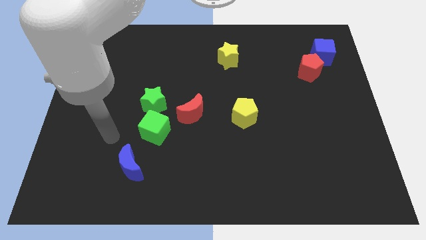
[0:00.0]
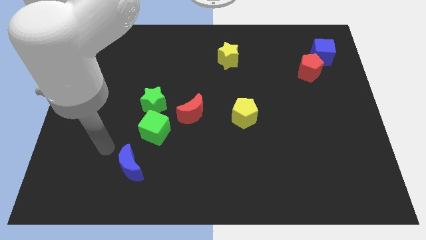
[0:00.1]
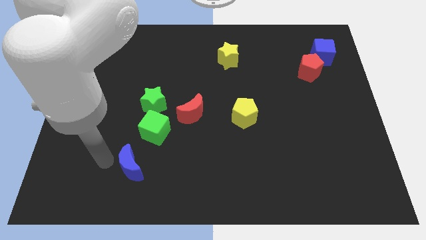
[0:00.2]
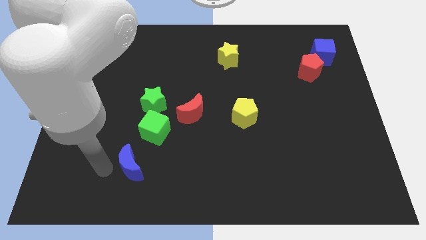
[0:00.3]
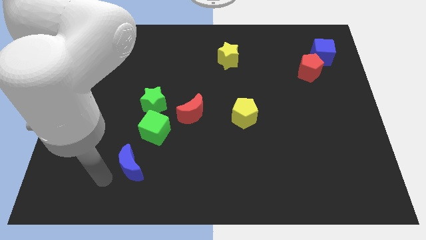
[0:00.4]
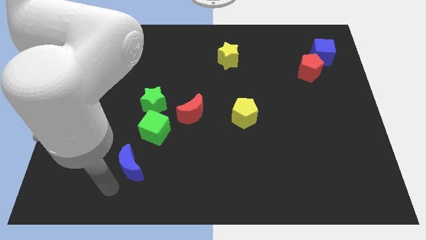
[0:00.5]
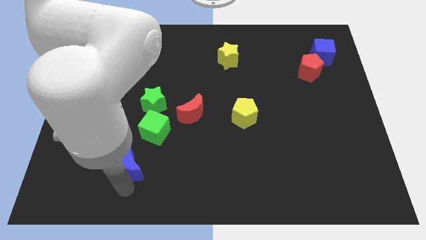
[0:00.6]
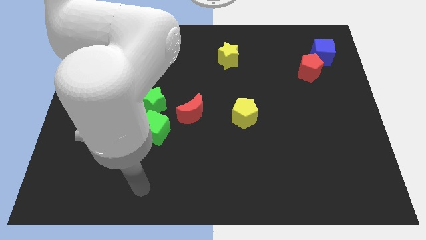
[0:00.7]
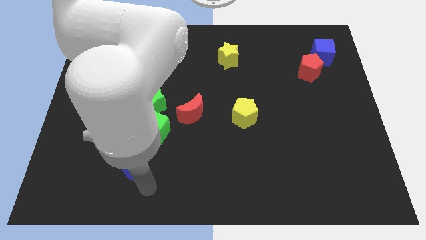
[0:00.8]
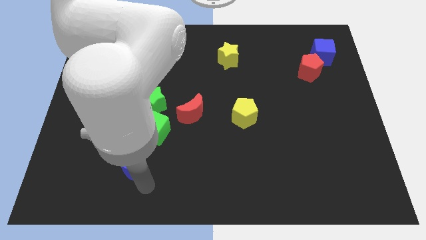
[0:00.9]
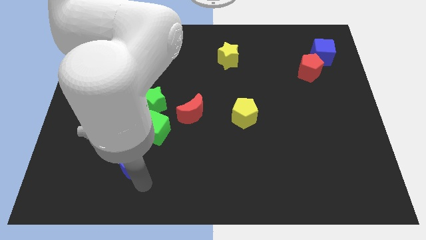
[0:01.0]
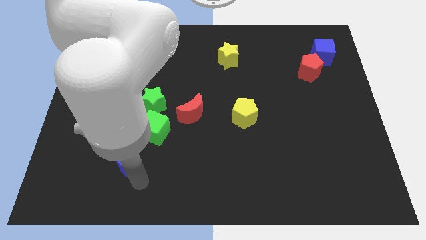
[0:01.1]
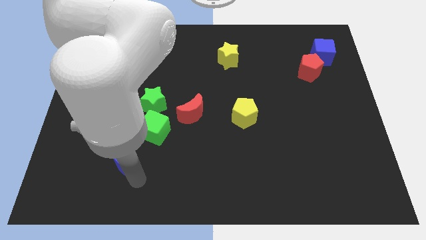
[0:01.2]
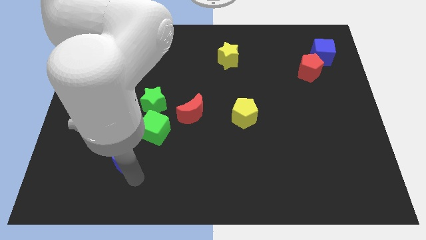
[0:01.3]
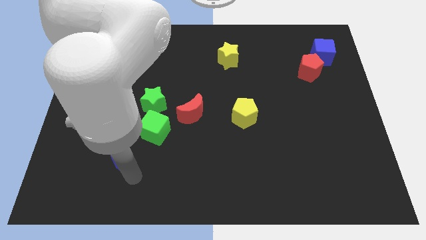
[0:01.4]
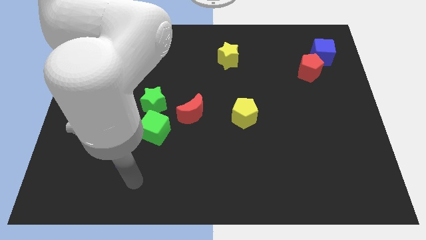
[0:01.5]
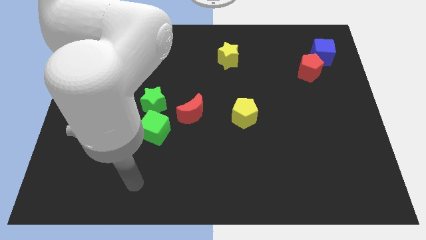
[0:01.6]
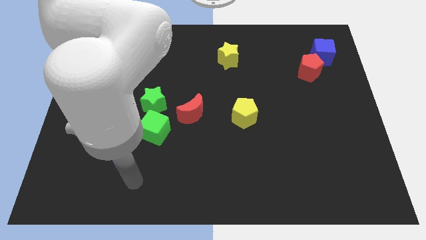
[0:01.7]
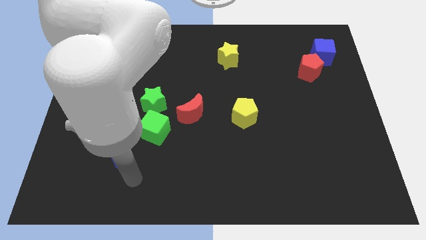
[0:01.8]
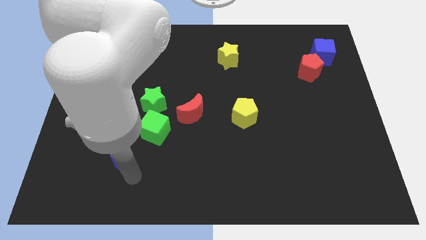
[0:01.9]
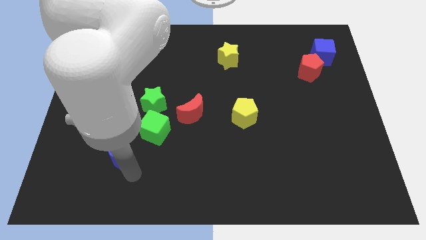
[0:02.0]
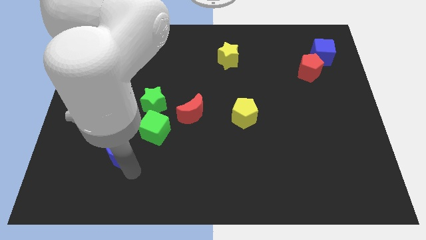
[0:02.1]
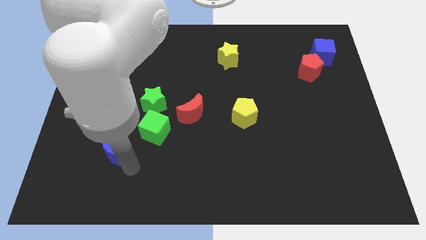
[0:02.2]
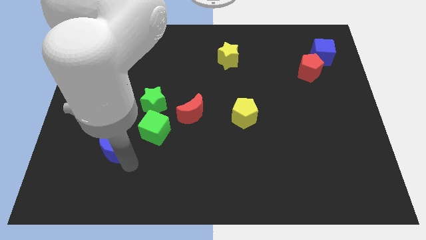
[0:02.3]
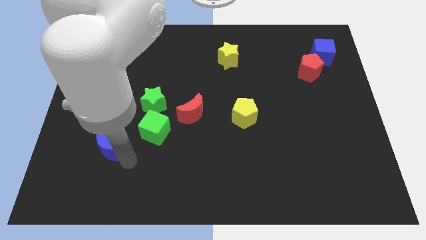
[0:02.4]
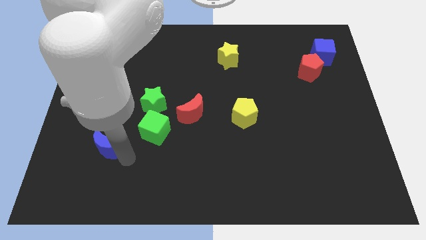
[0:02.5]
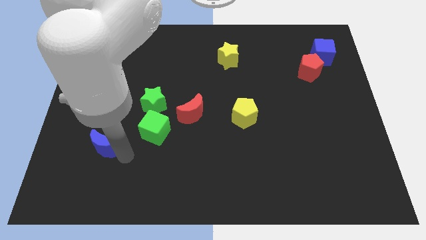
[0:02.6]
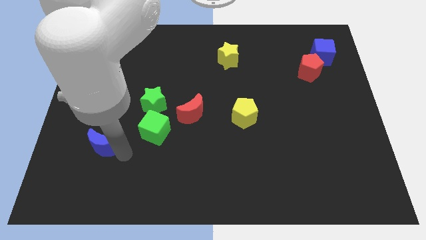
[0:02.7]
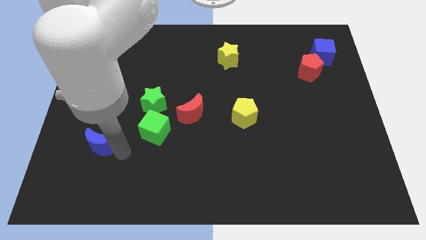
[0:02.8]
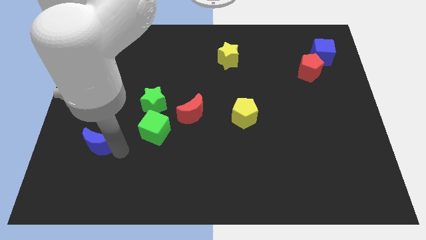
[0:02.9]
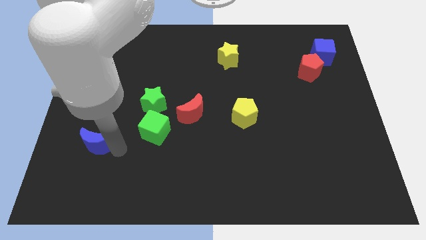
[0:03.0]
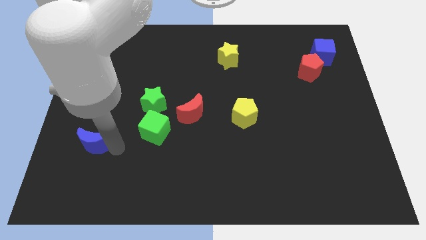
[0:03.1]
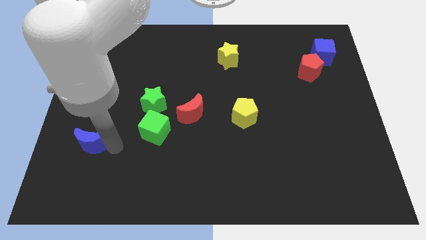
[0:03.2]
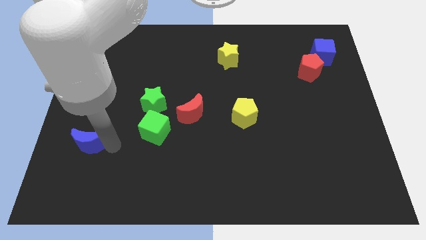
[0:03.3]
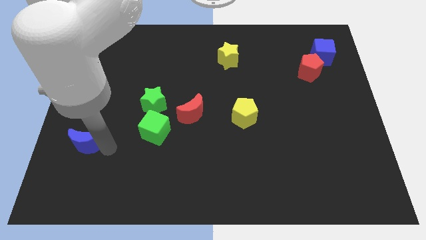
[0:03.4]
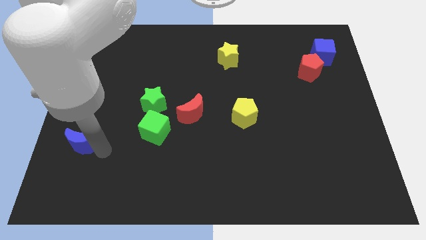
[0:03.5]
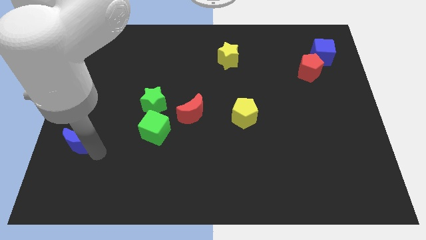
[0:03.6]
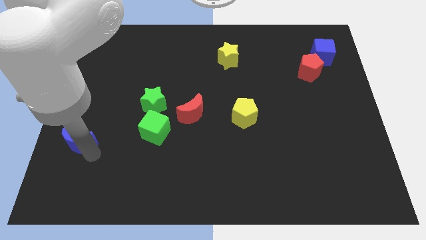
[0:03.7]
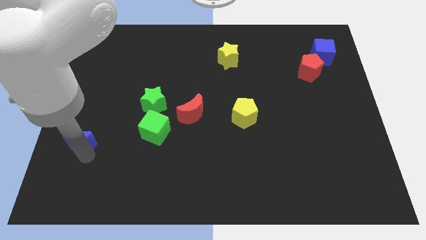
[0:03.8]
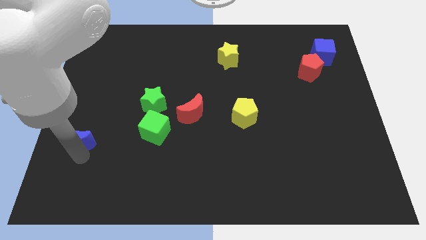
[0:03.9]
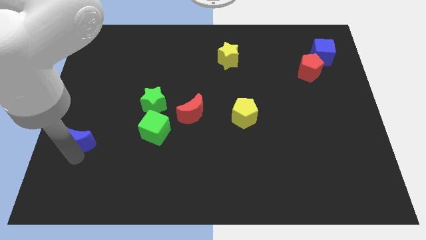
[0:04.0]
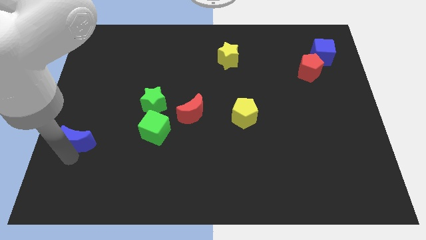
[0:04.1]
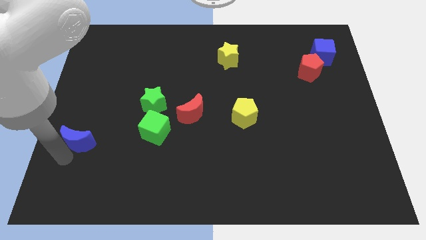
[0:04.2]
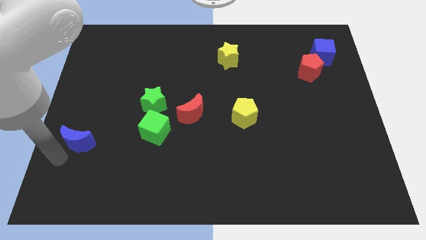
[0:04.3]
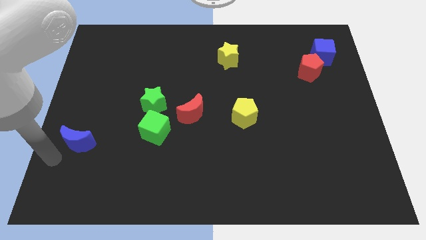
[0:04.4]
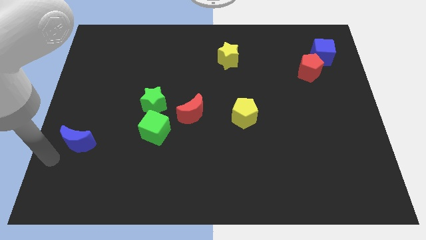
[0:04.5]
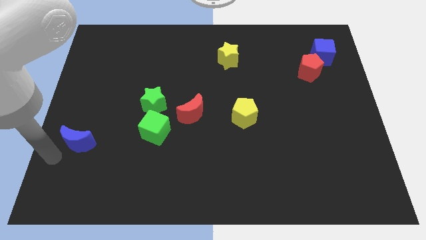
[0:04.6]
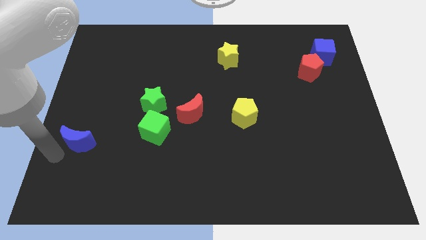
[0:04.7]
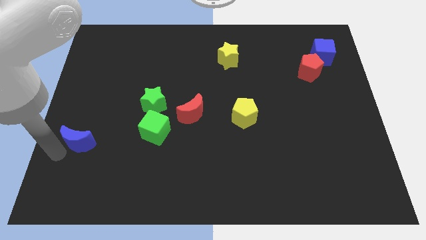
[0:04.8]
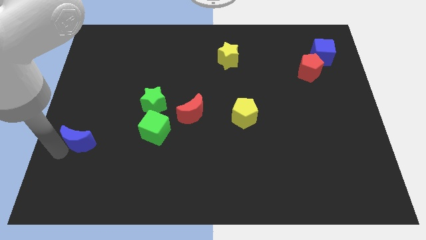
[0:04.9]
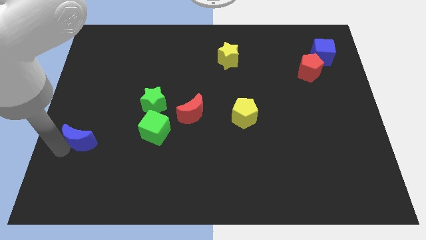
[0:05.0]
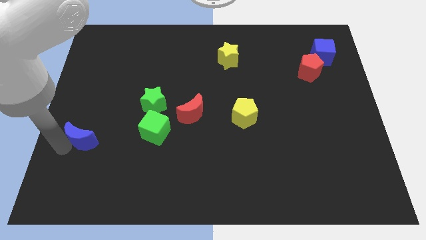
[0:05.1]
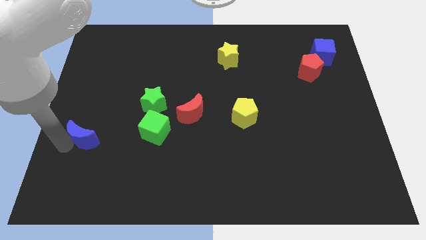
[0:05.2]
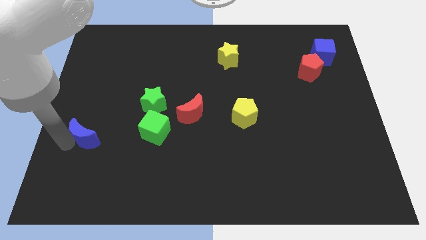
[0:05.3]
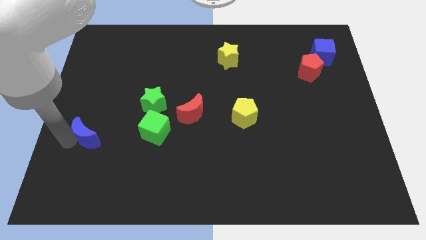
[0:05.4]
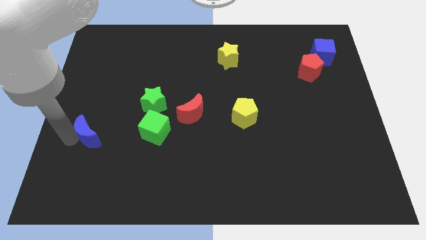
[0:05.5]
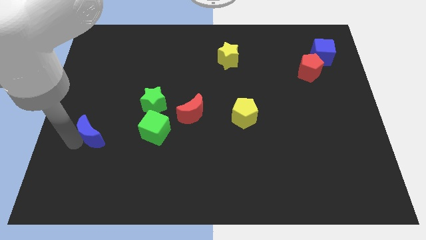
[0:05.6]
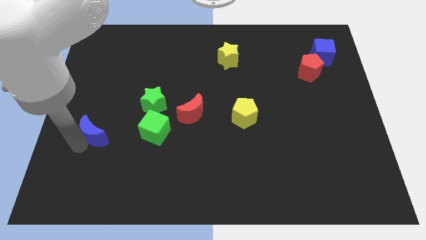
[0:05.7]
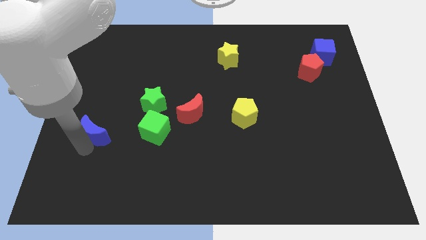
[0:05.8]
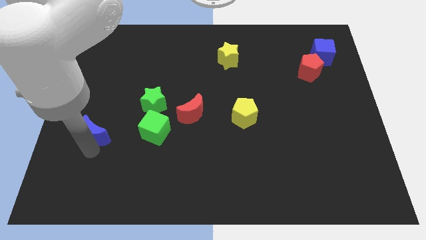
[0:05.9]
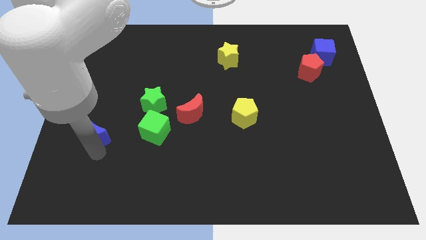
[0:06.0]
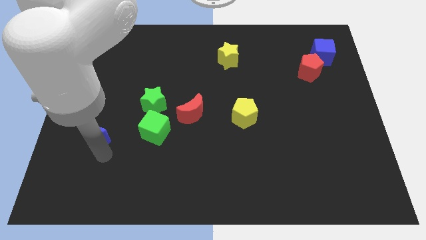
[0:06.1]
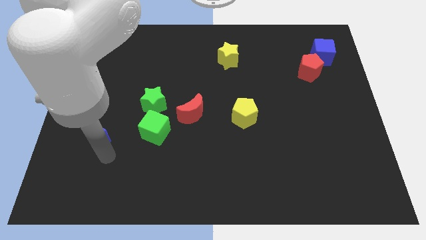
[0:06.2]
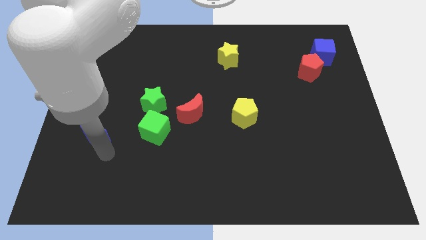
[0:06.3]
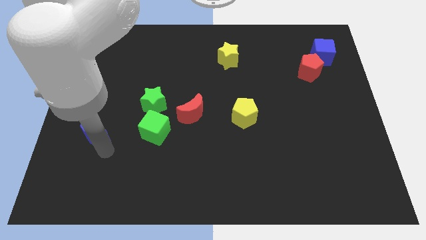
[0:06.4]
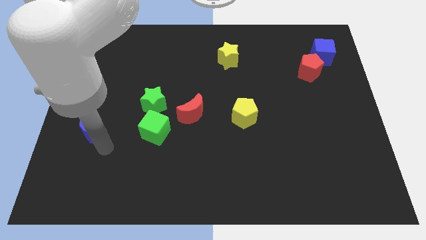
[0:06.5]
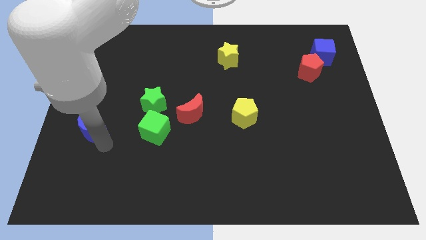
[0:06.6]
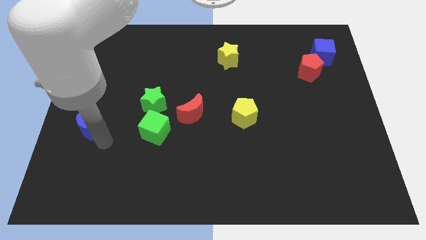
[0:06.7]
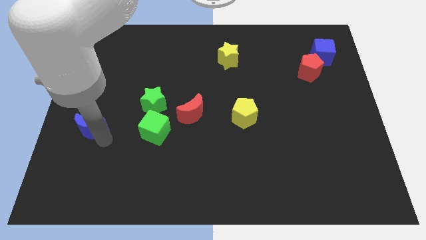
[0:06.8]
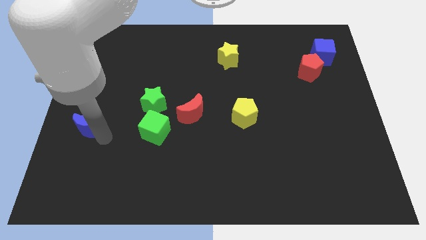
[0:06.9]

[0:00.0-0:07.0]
move the blue moon to the left side
